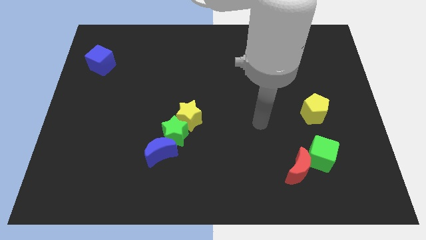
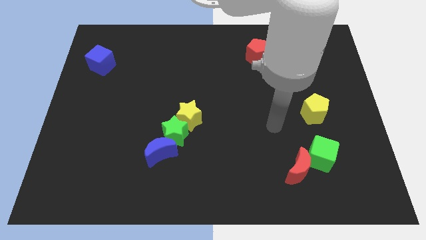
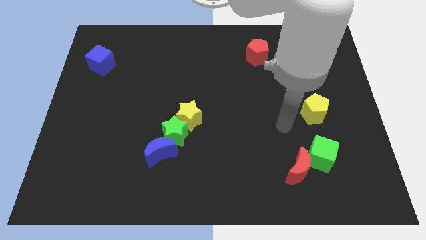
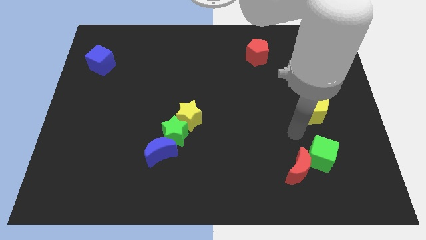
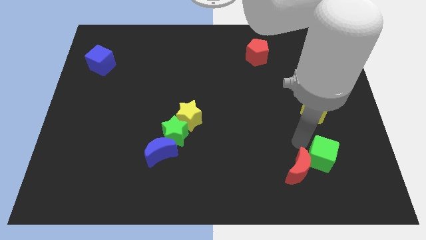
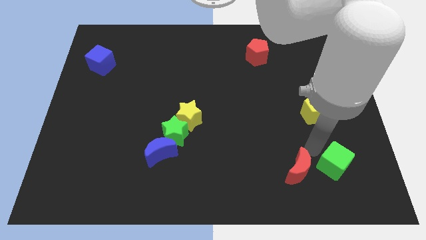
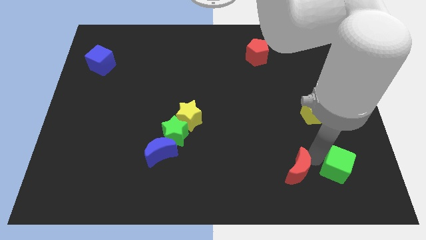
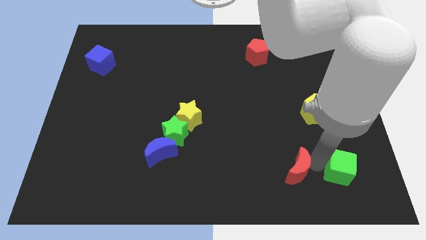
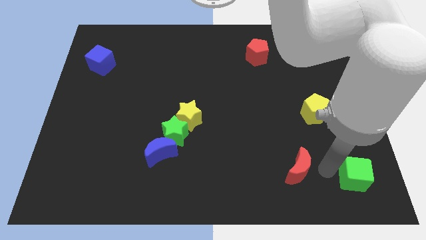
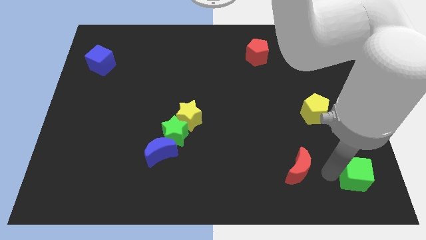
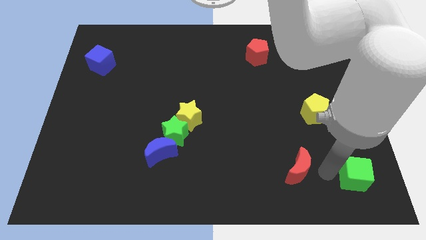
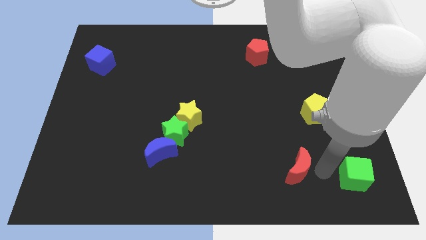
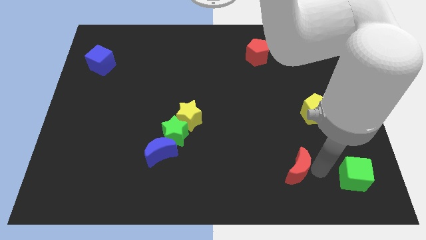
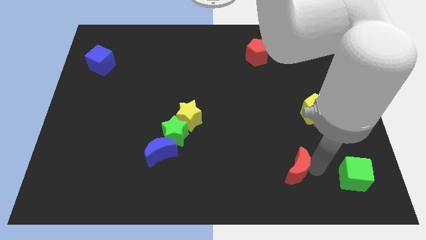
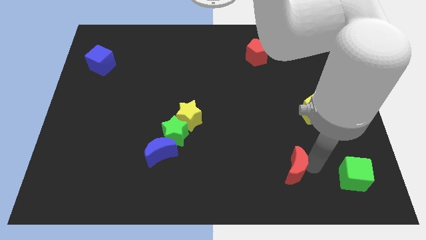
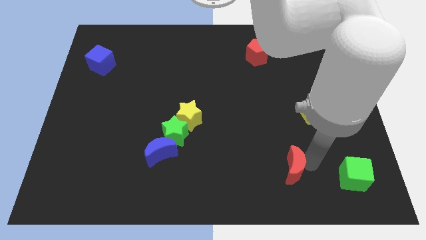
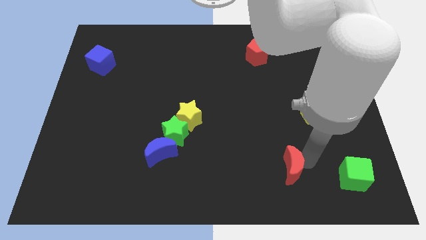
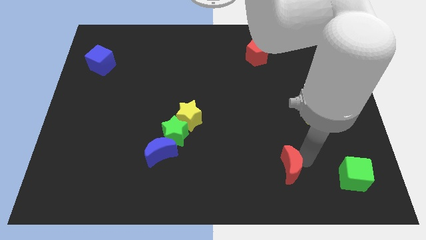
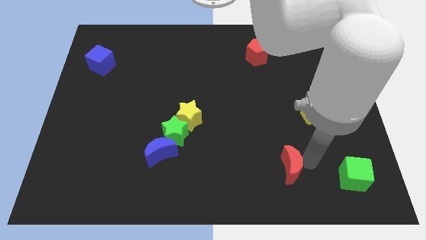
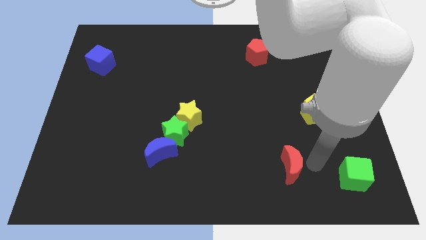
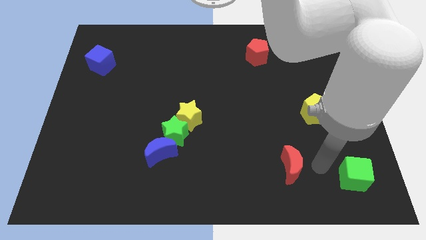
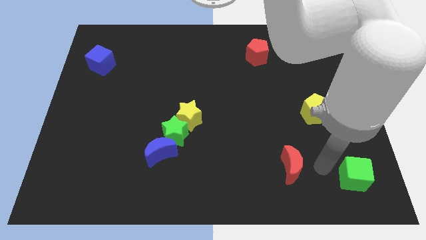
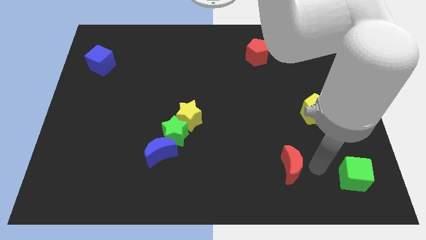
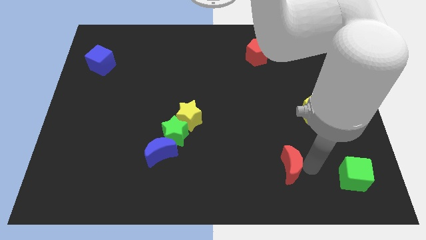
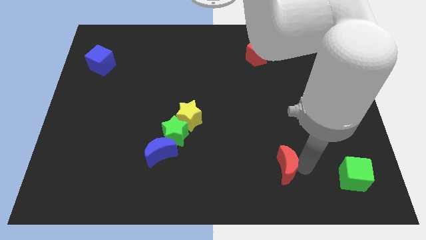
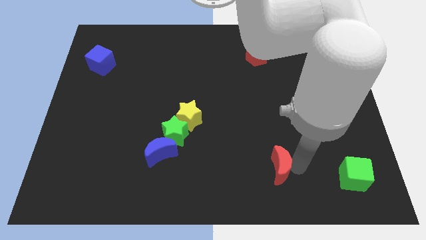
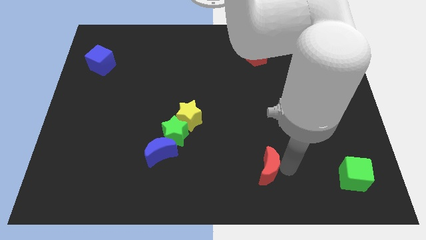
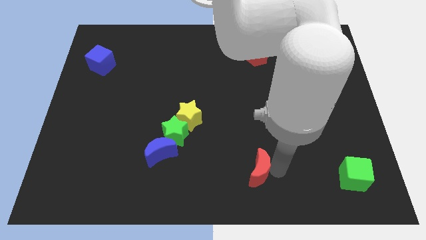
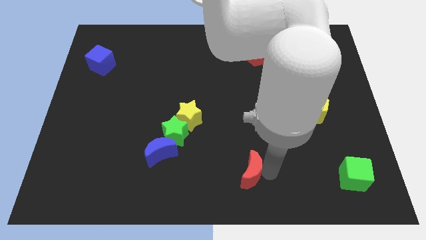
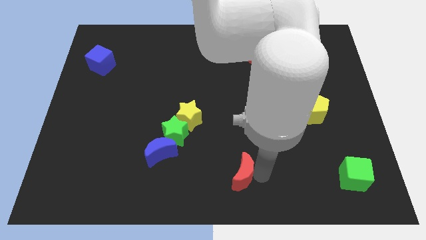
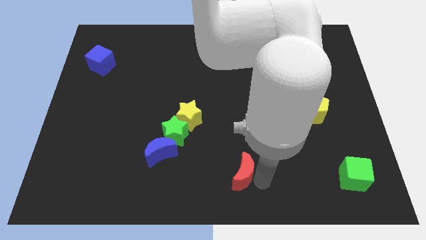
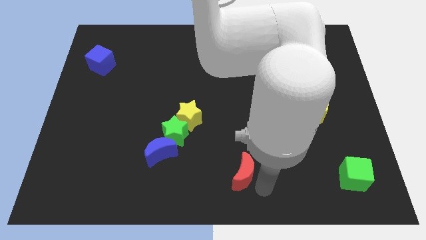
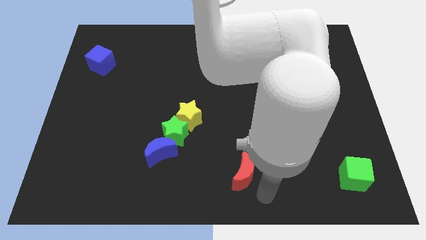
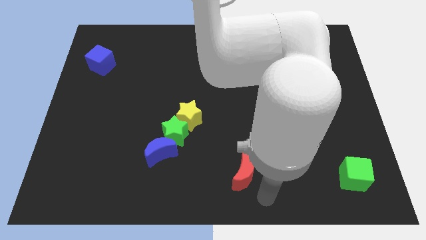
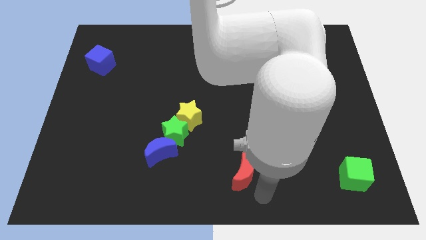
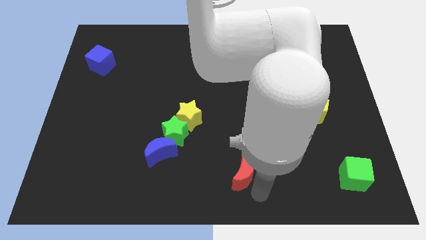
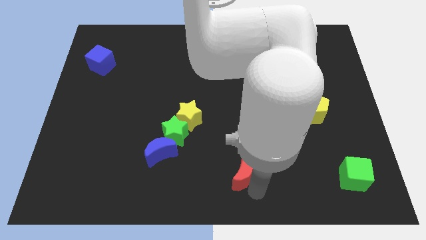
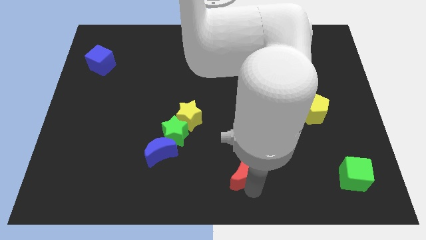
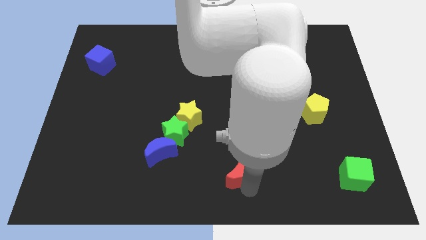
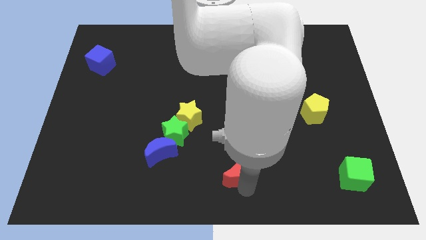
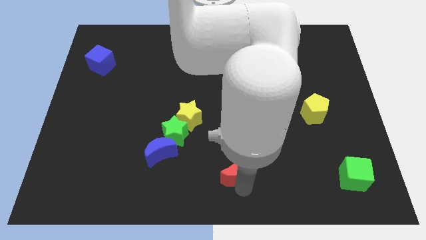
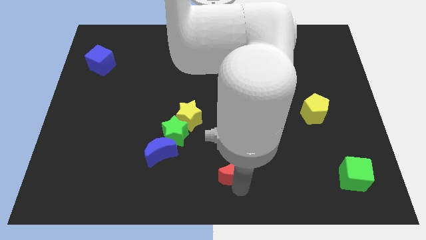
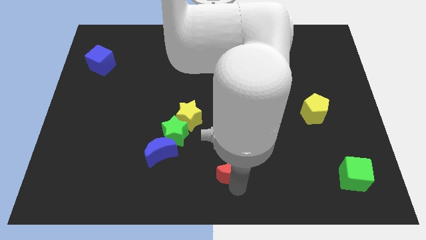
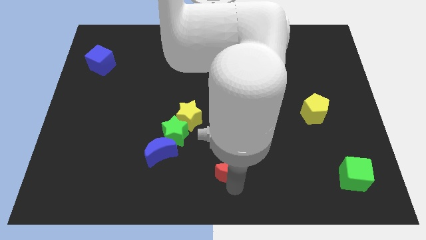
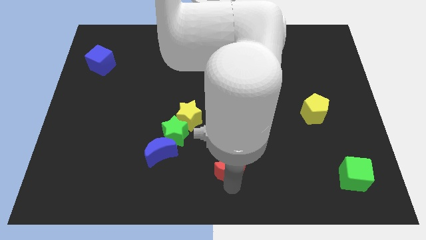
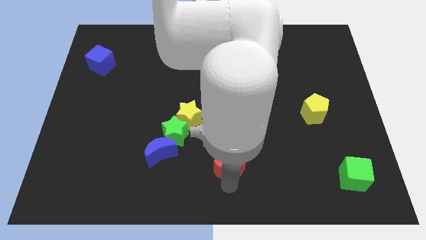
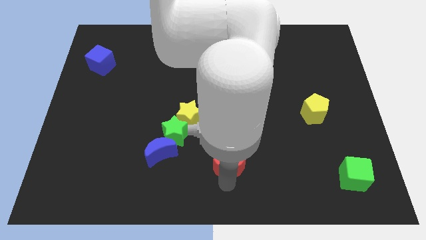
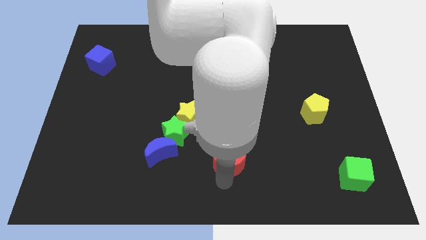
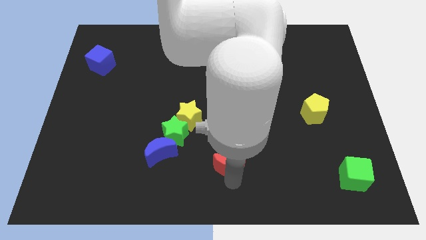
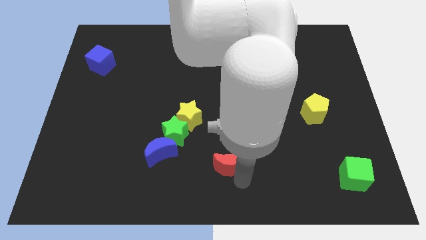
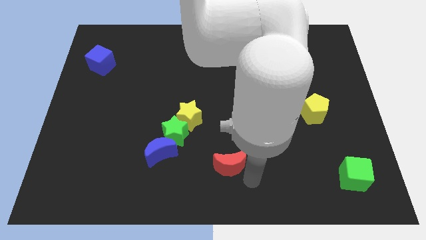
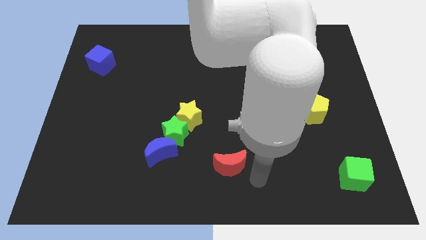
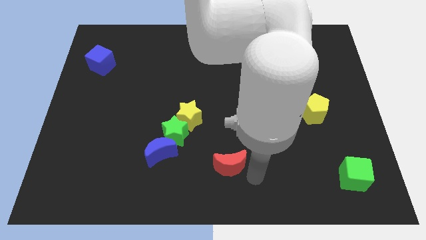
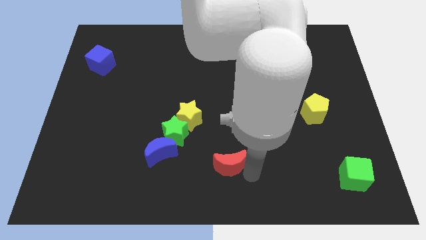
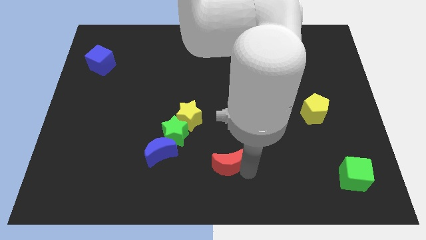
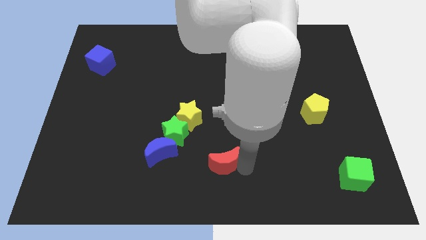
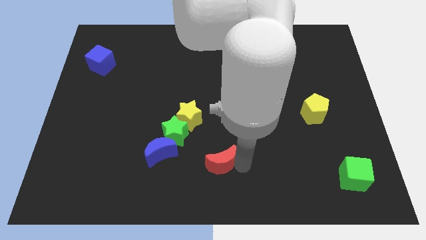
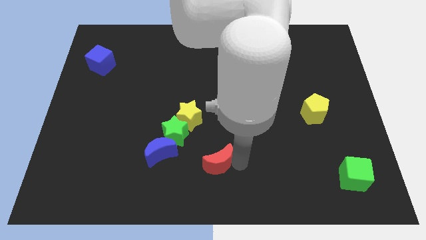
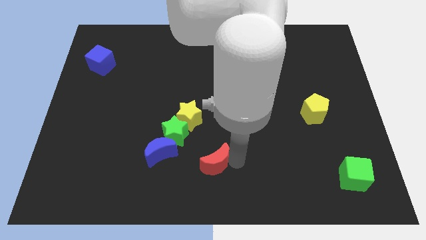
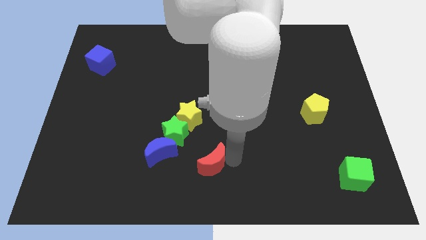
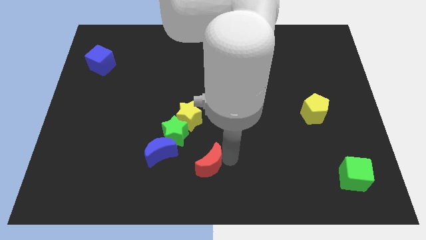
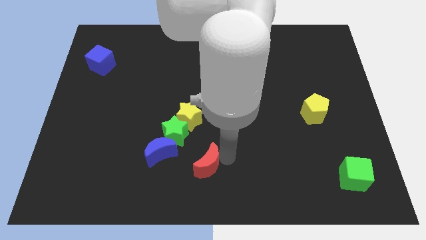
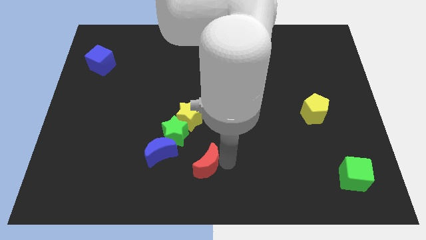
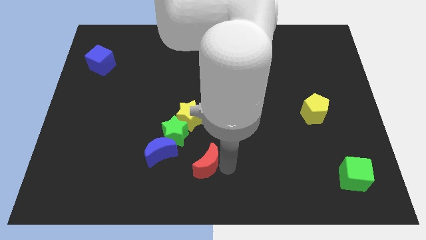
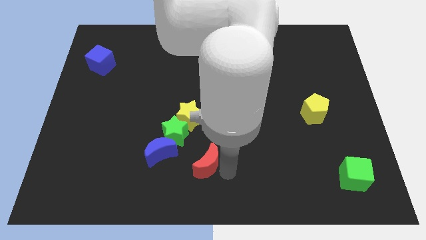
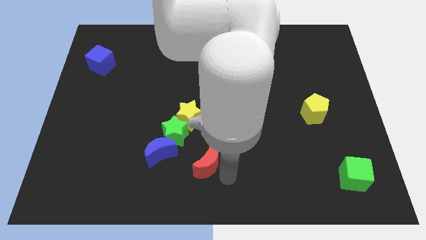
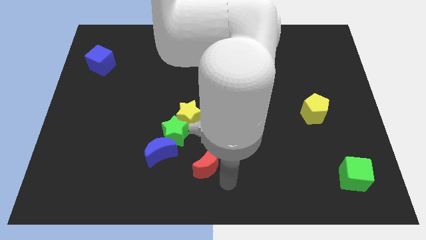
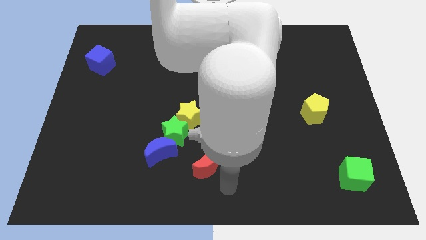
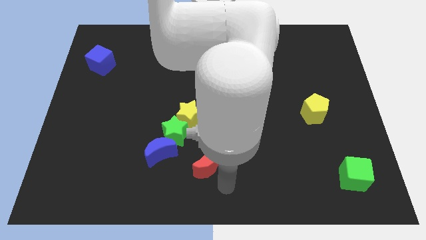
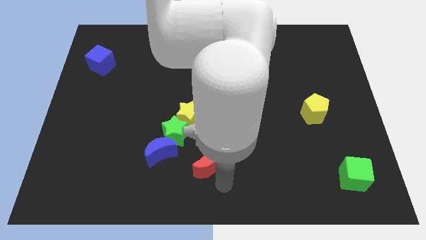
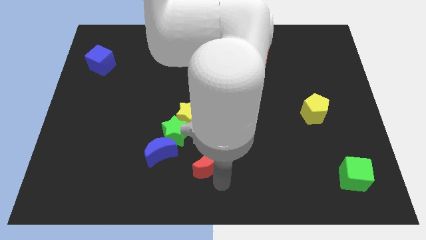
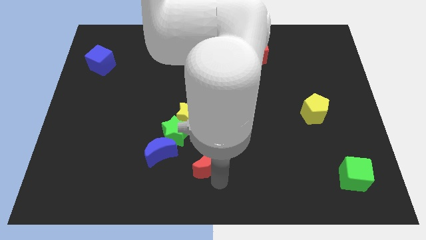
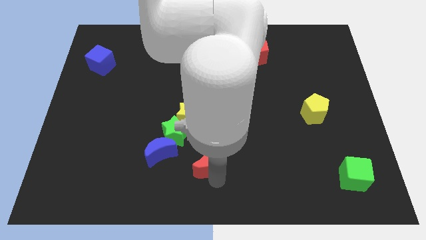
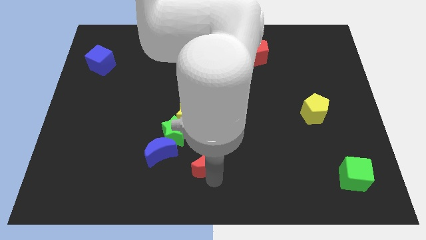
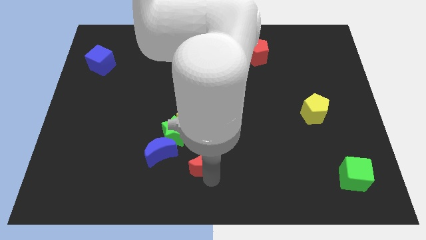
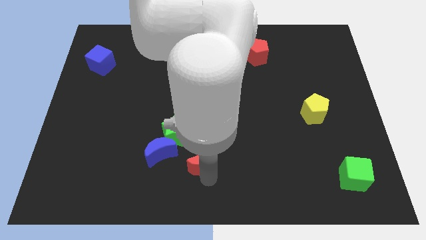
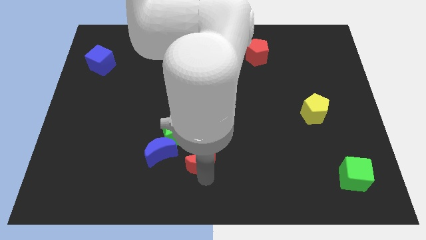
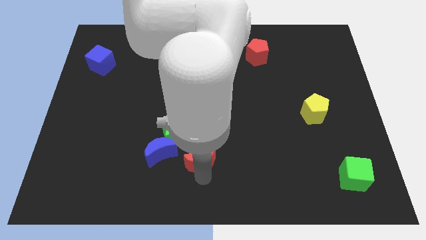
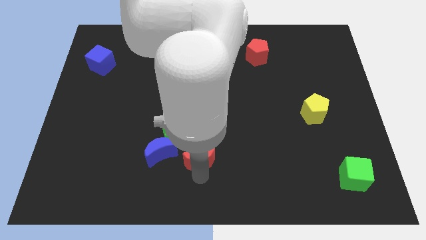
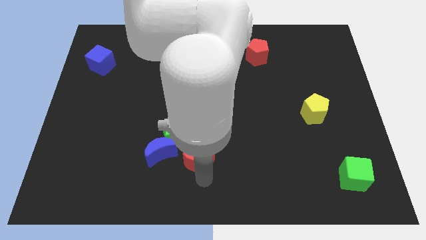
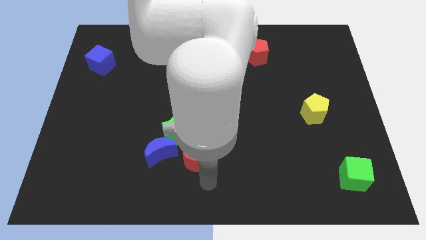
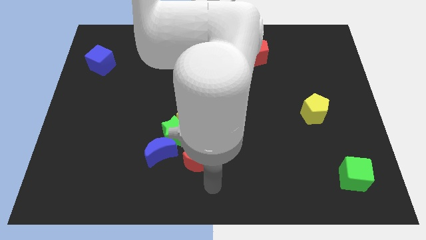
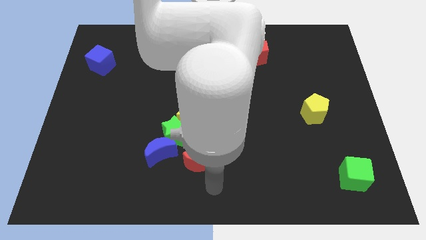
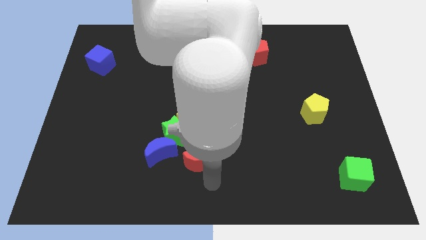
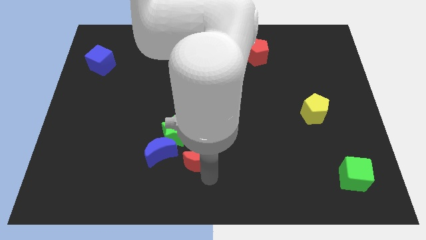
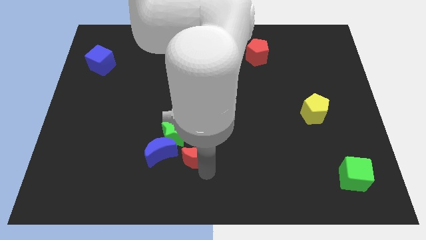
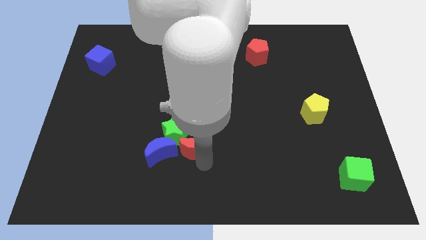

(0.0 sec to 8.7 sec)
push the red moon to the green star
